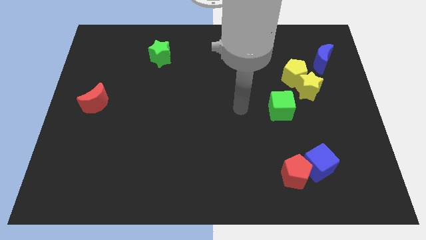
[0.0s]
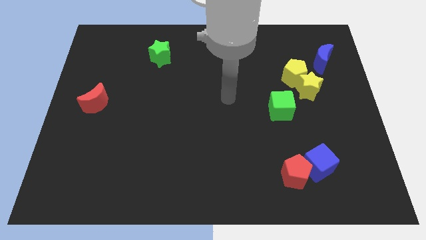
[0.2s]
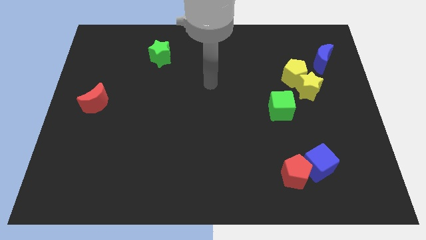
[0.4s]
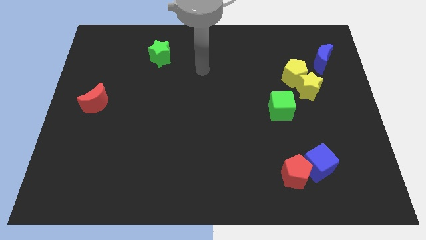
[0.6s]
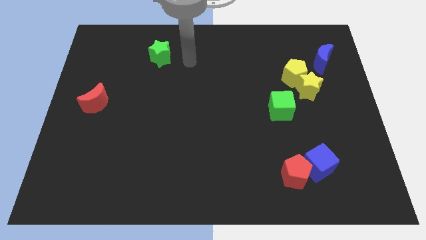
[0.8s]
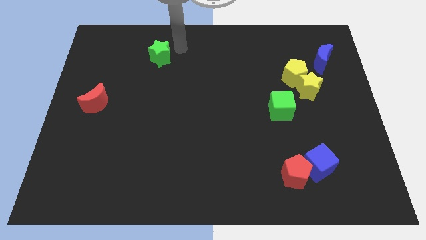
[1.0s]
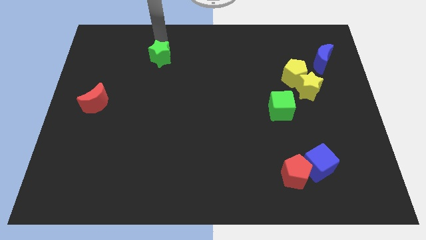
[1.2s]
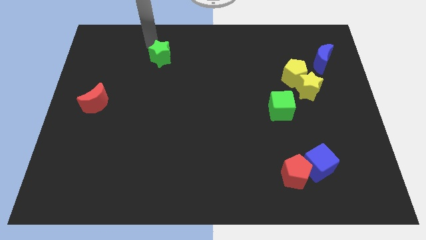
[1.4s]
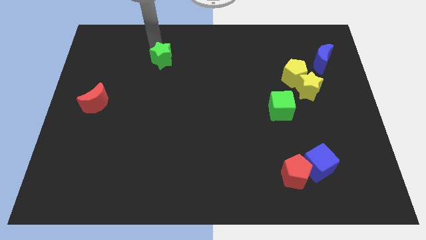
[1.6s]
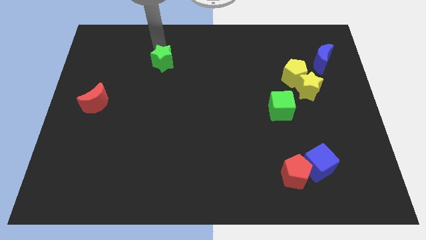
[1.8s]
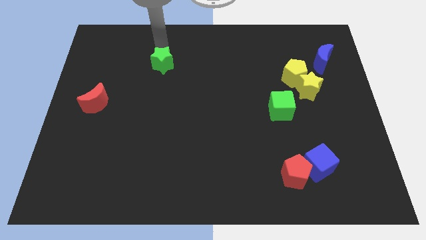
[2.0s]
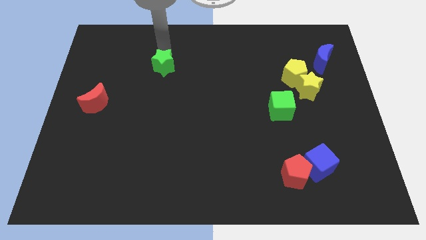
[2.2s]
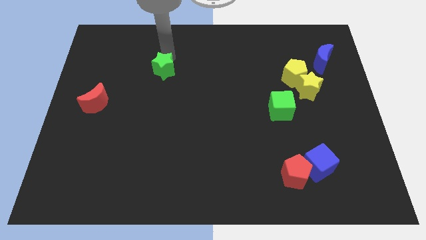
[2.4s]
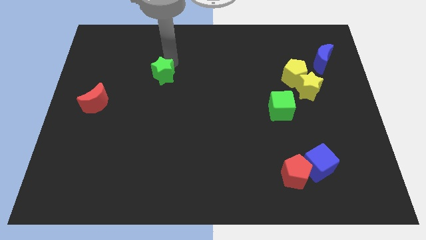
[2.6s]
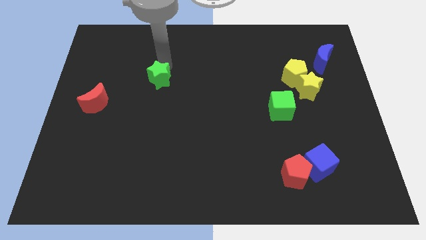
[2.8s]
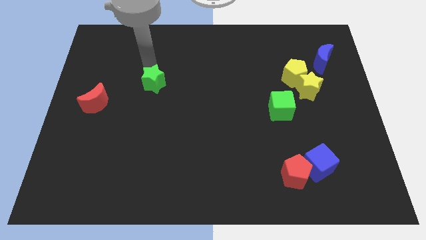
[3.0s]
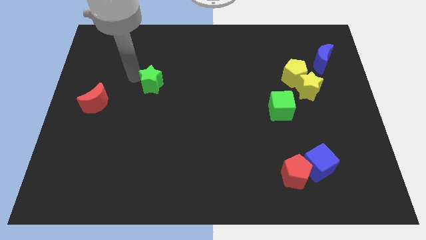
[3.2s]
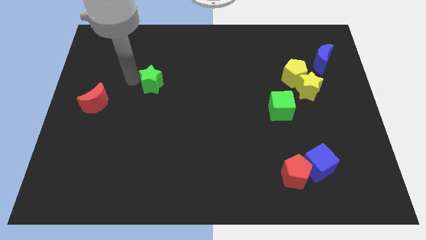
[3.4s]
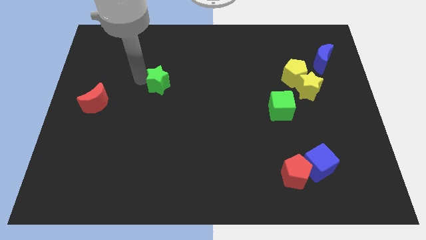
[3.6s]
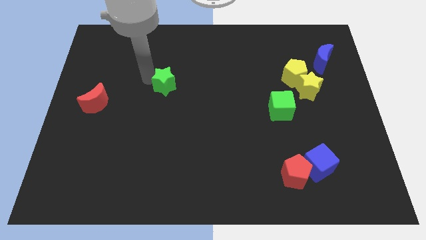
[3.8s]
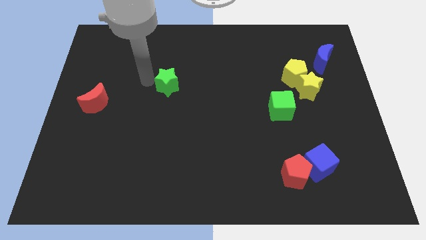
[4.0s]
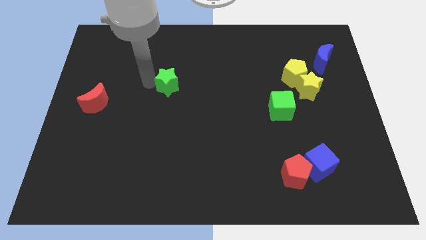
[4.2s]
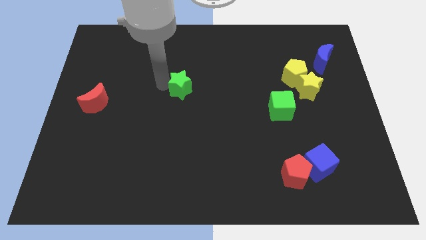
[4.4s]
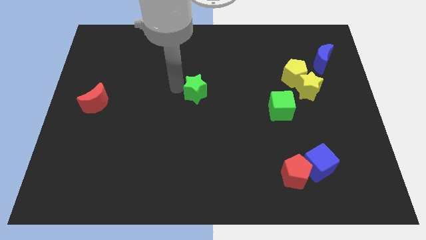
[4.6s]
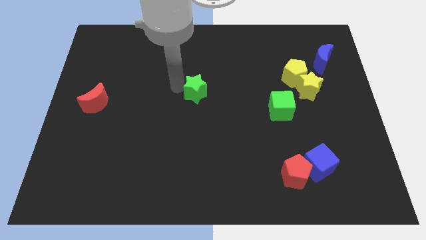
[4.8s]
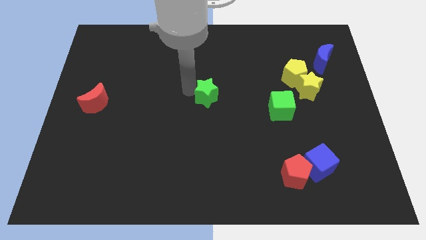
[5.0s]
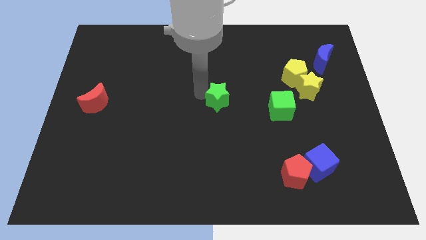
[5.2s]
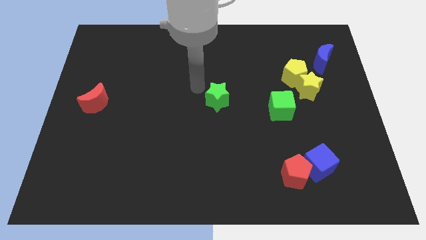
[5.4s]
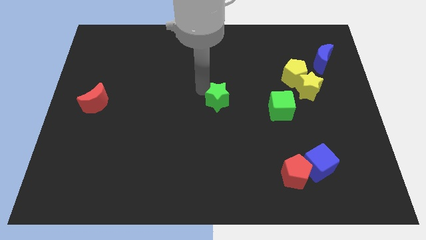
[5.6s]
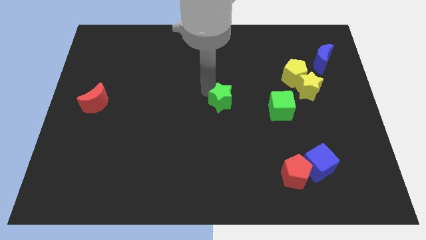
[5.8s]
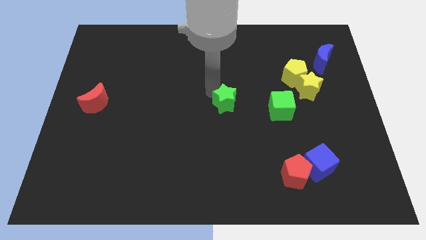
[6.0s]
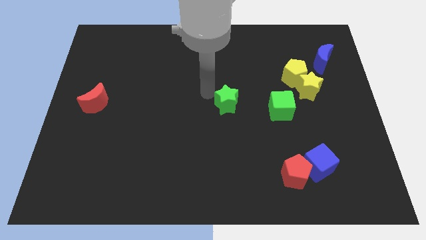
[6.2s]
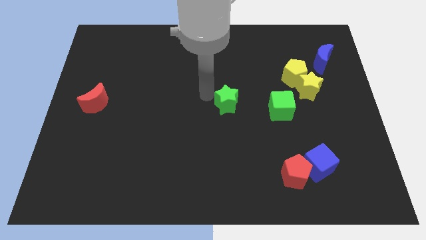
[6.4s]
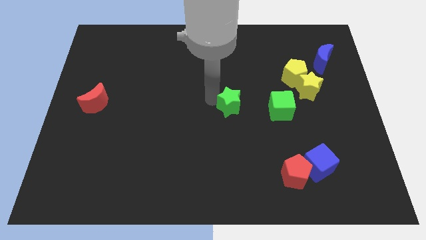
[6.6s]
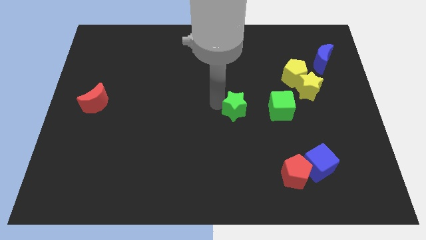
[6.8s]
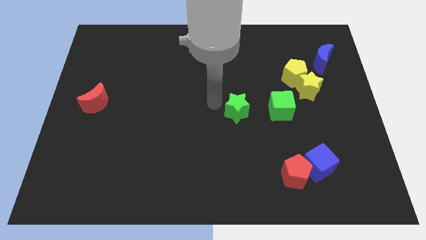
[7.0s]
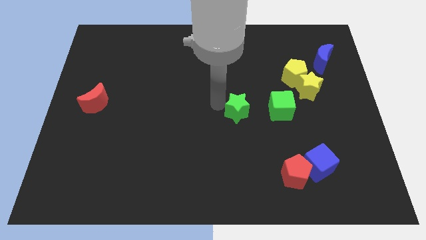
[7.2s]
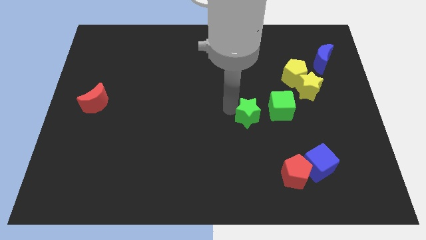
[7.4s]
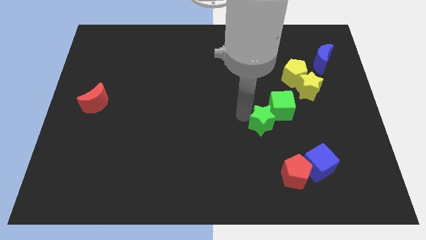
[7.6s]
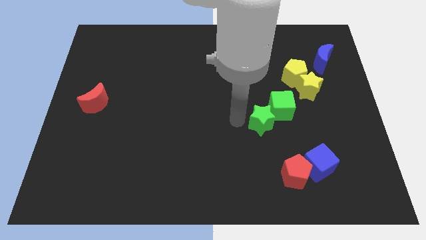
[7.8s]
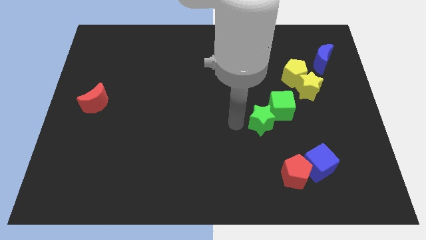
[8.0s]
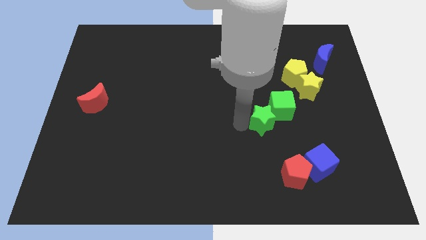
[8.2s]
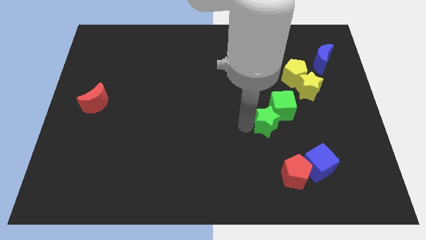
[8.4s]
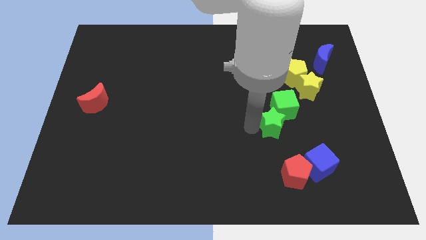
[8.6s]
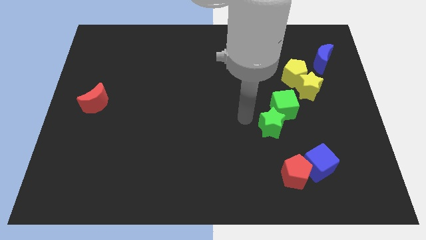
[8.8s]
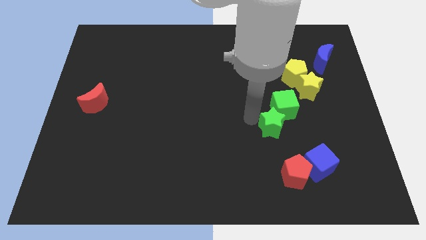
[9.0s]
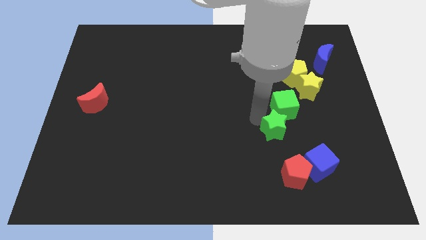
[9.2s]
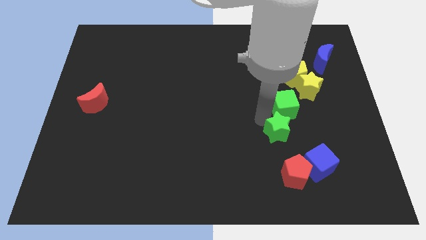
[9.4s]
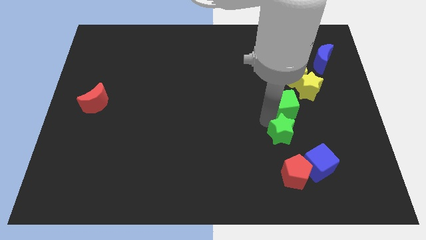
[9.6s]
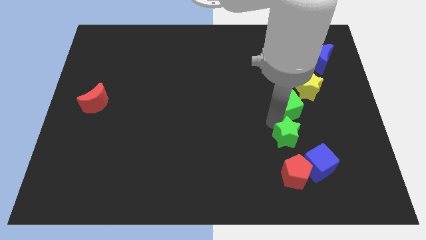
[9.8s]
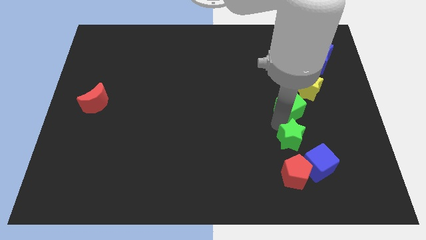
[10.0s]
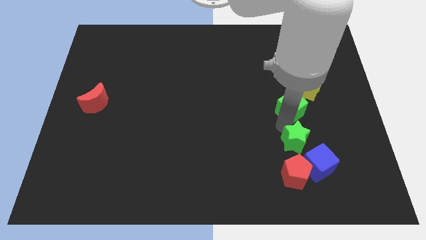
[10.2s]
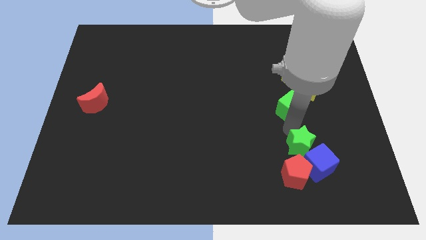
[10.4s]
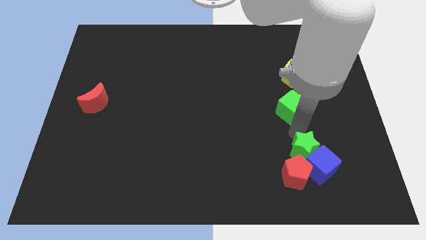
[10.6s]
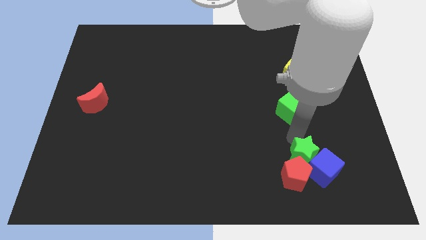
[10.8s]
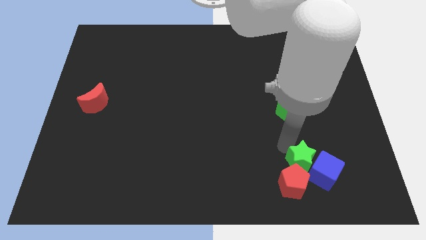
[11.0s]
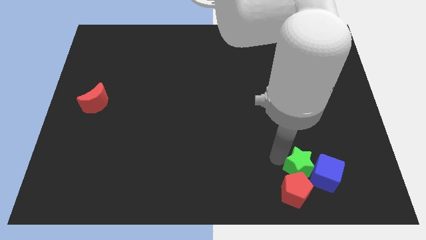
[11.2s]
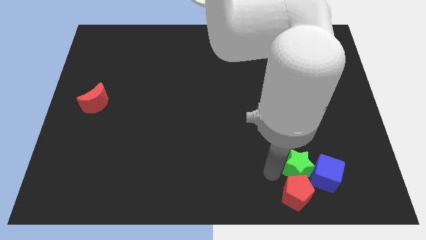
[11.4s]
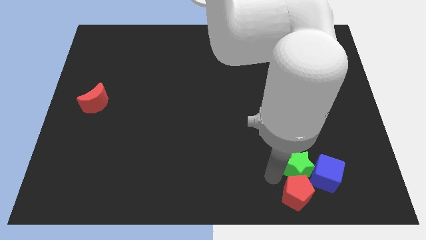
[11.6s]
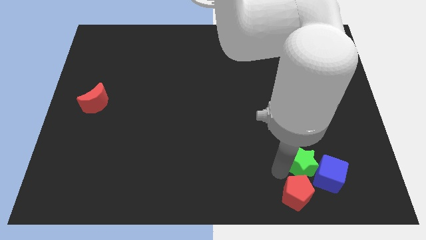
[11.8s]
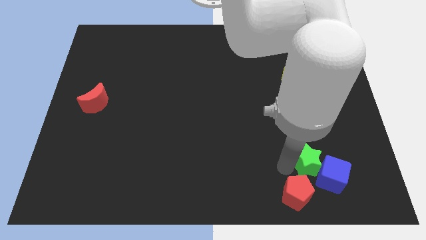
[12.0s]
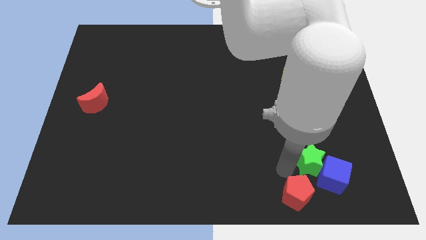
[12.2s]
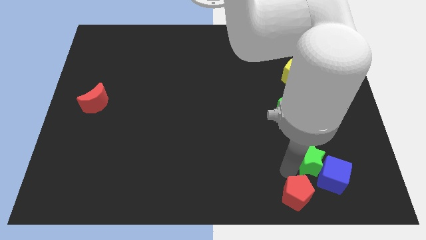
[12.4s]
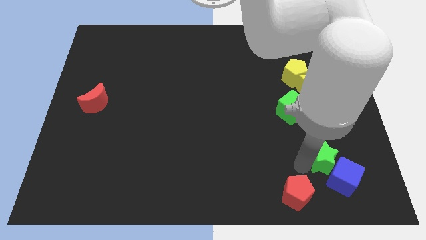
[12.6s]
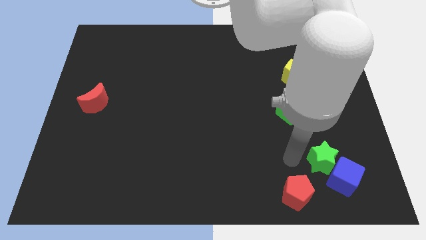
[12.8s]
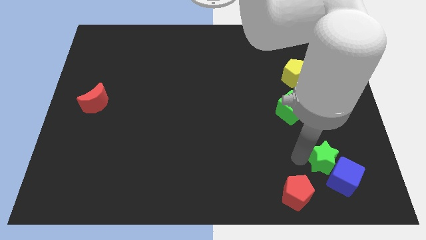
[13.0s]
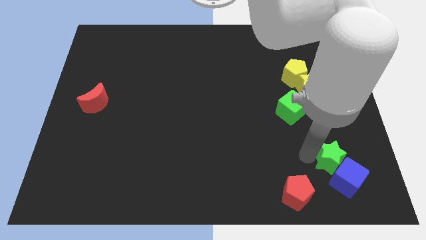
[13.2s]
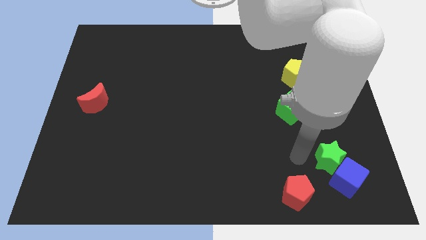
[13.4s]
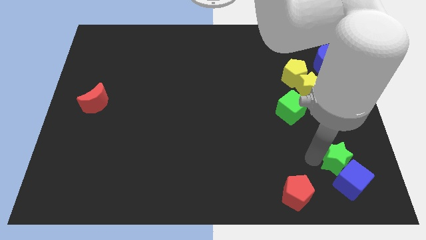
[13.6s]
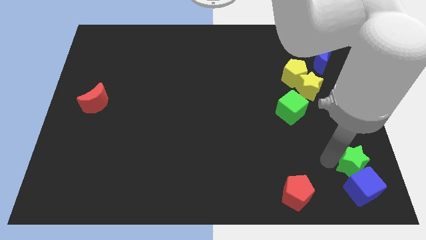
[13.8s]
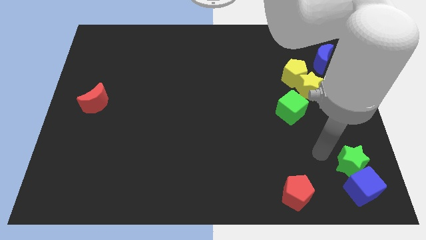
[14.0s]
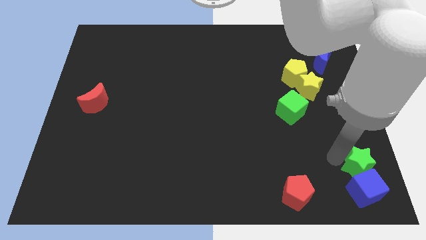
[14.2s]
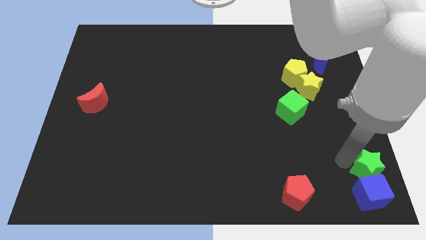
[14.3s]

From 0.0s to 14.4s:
put the green star to the lower right corner
